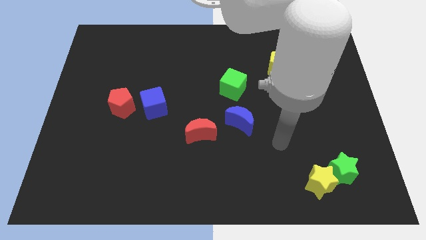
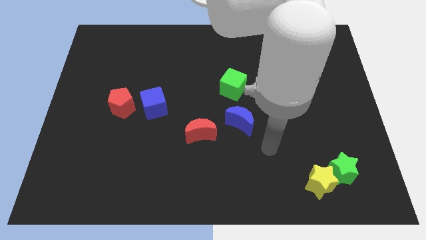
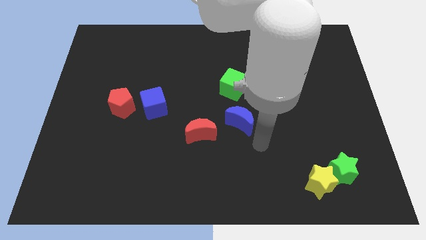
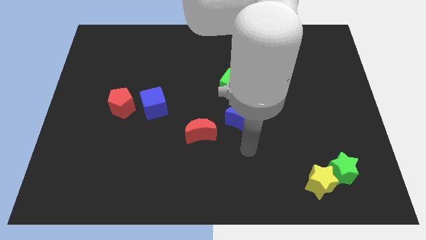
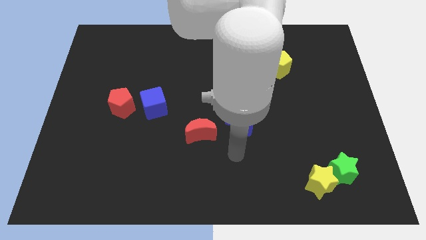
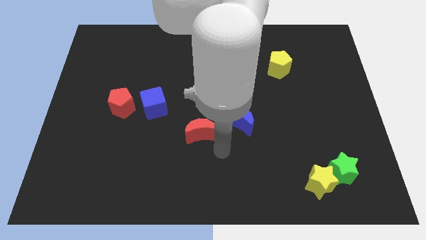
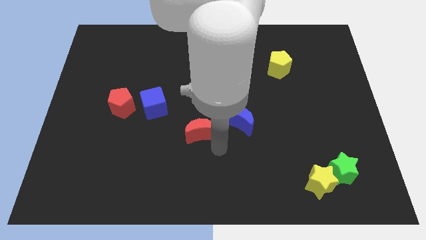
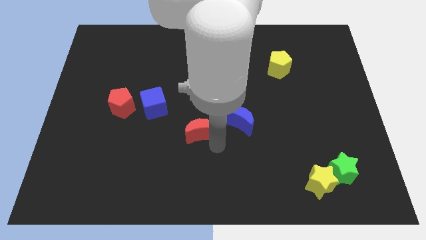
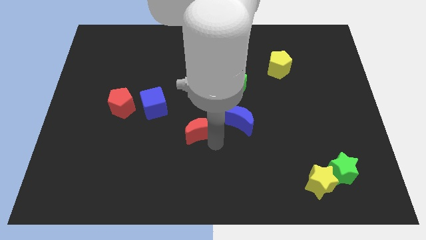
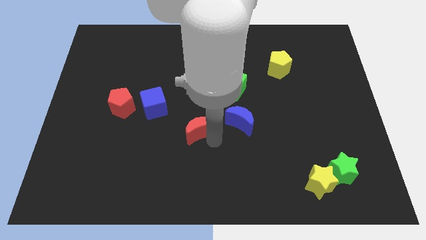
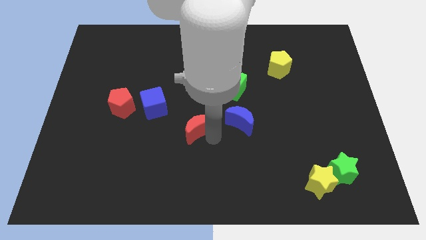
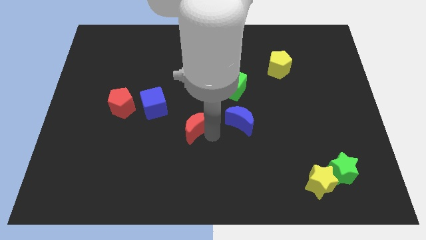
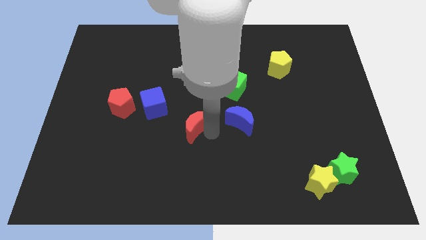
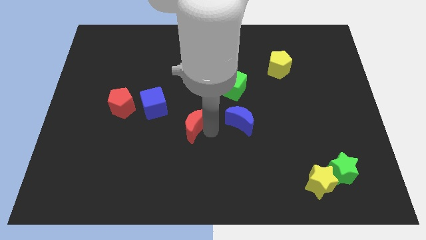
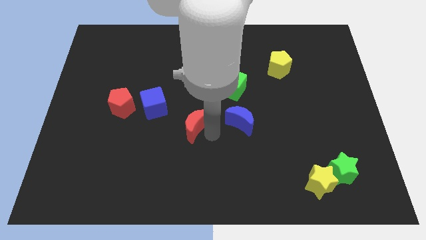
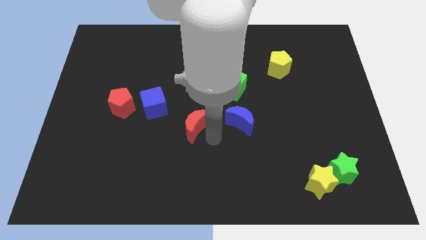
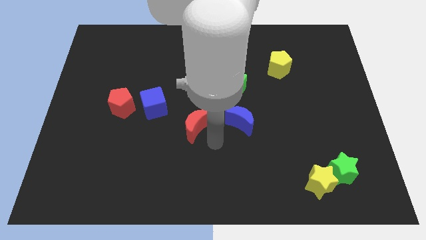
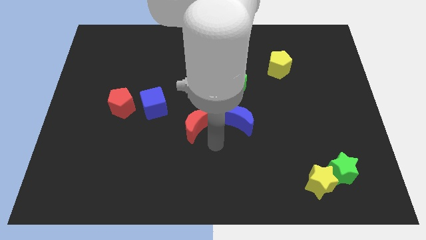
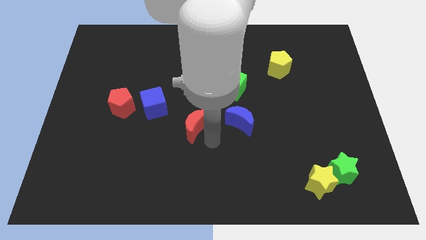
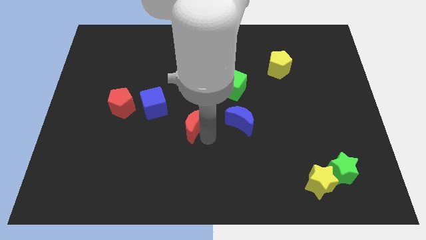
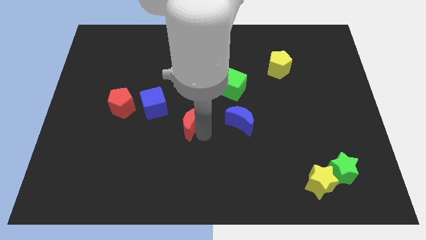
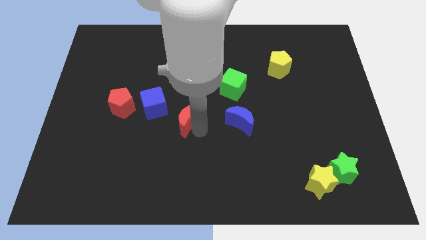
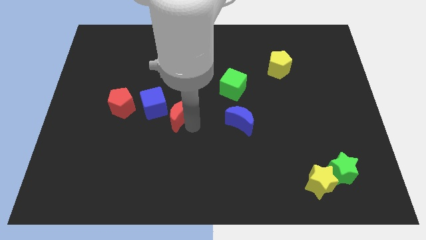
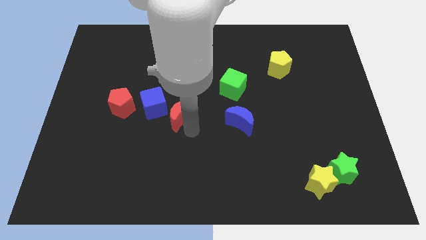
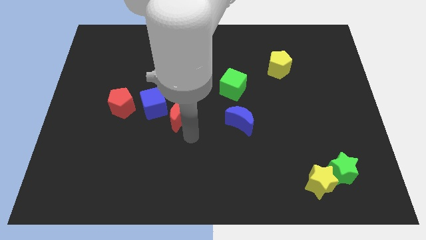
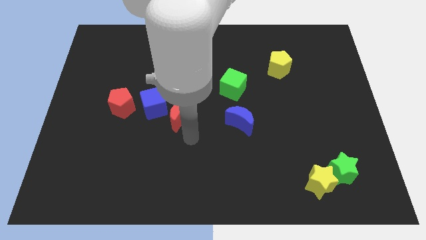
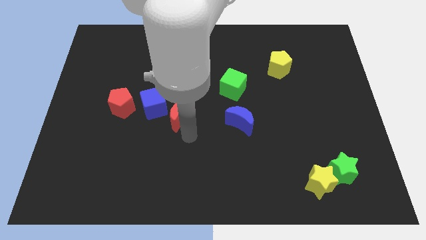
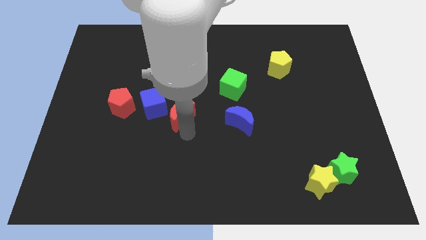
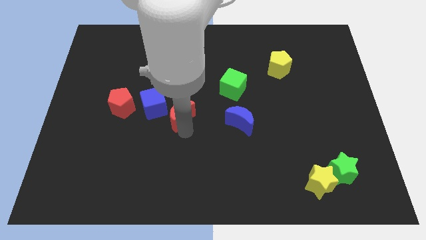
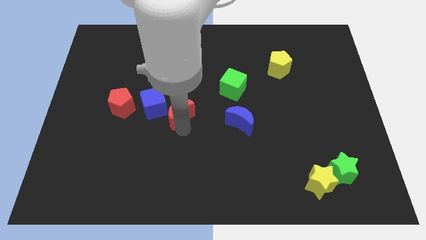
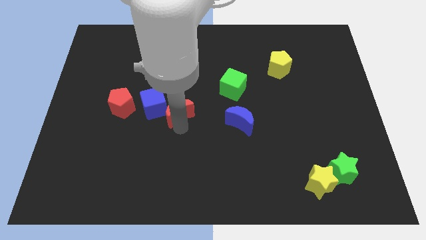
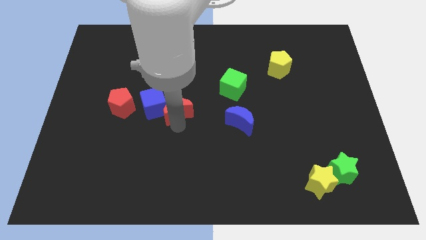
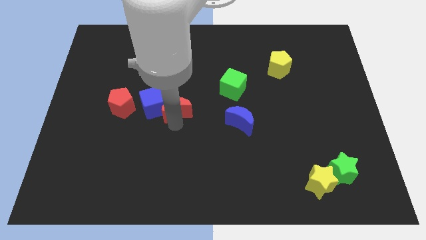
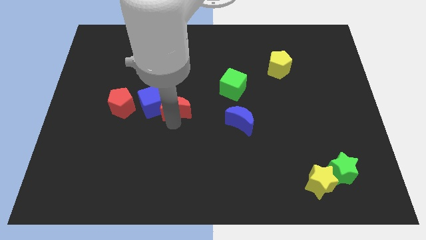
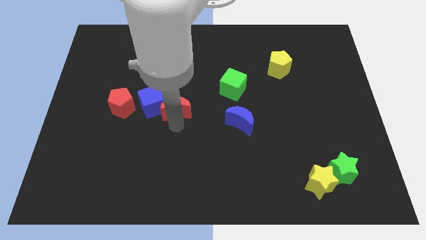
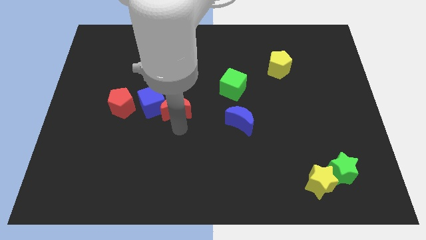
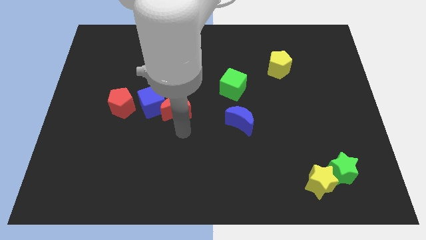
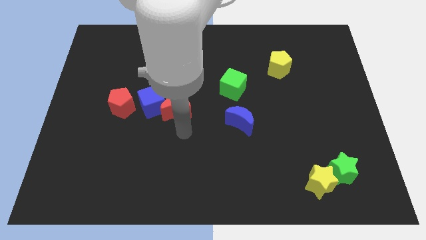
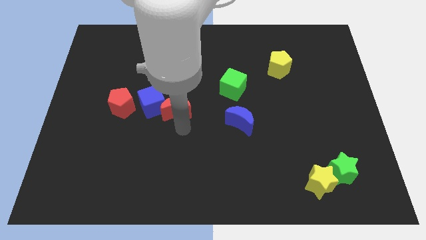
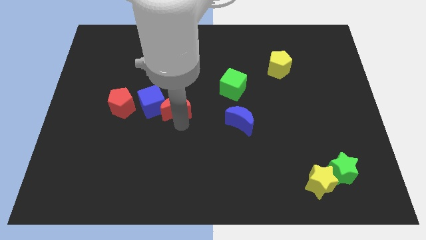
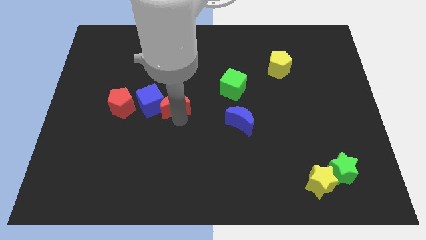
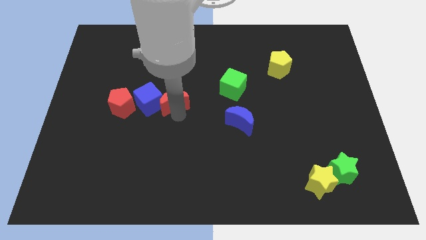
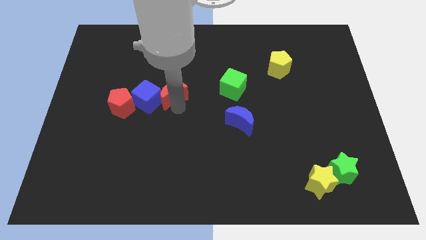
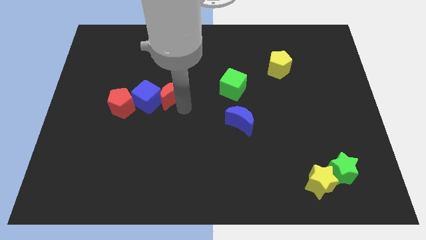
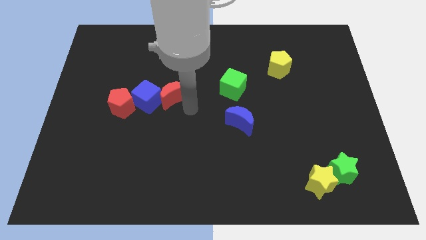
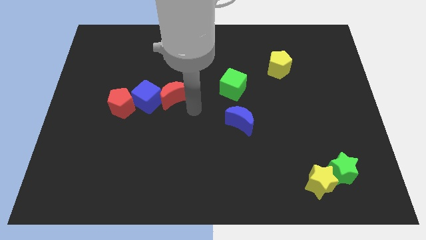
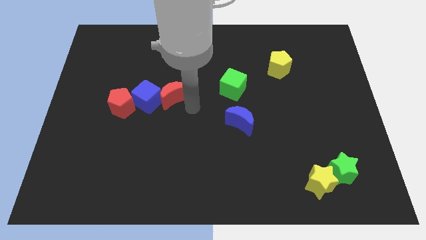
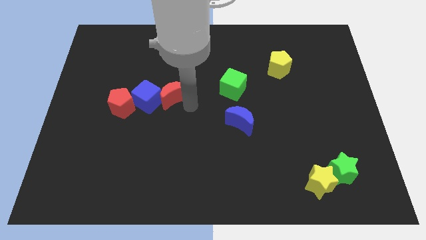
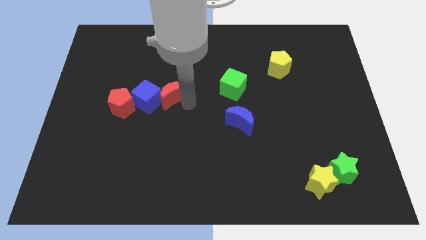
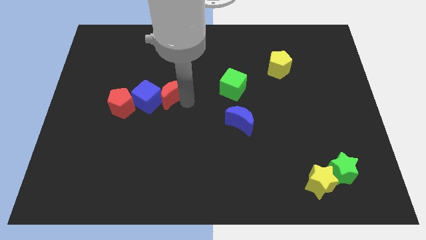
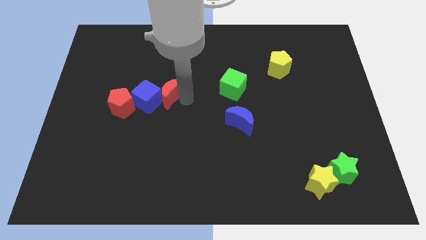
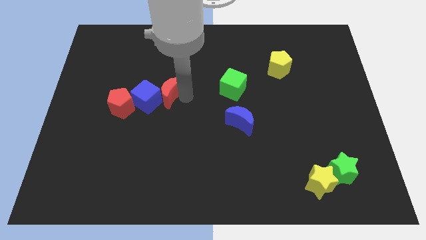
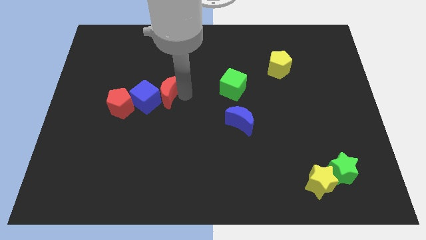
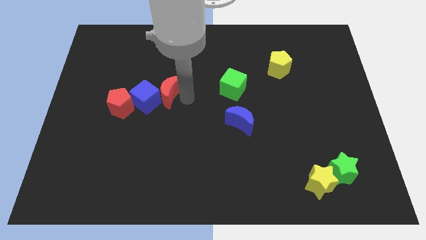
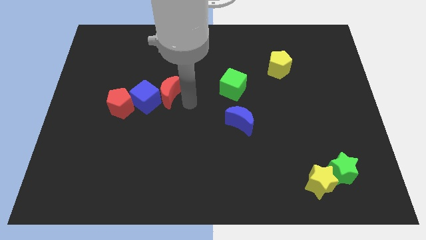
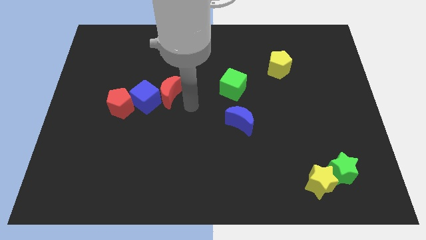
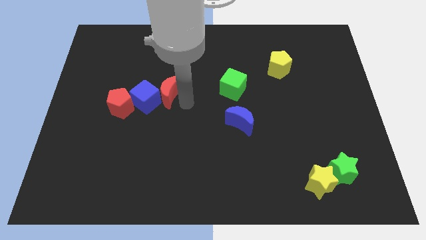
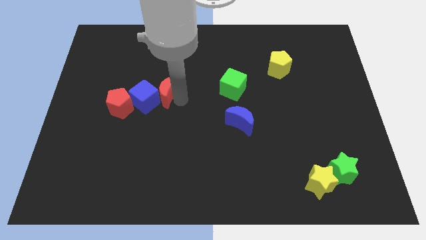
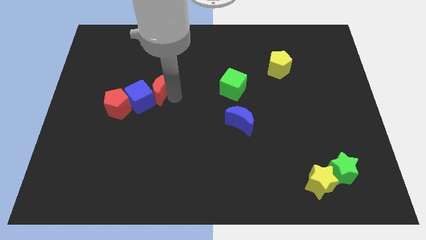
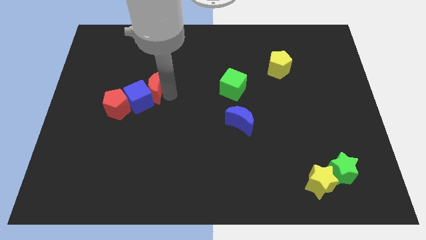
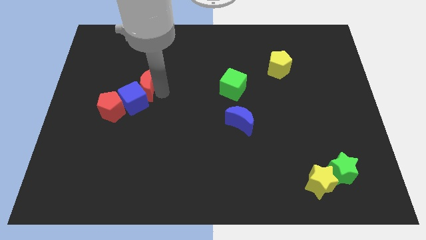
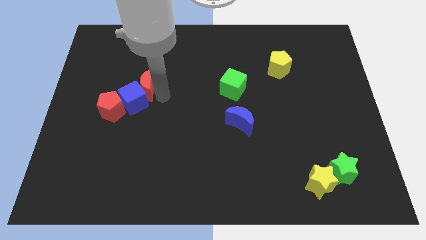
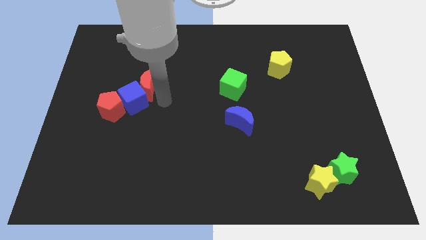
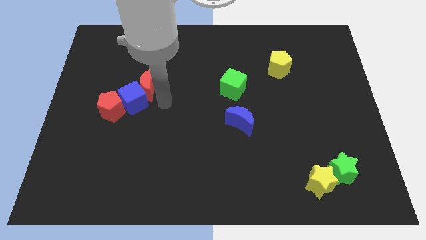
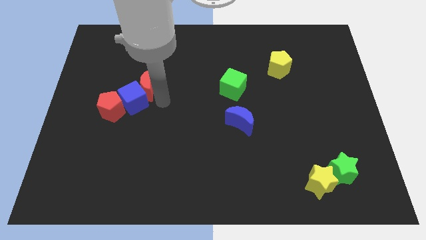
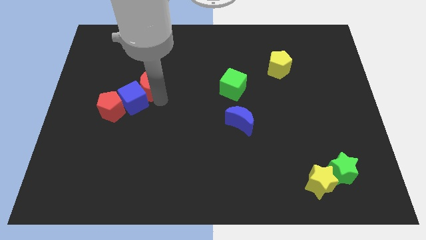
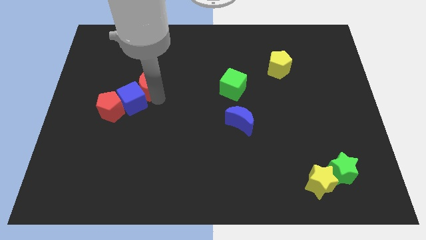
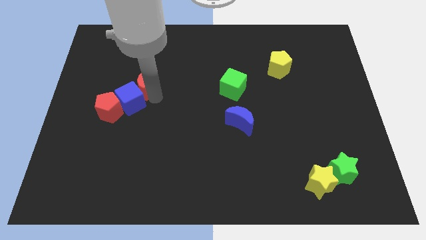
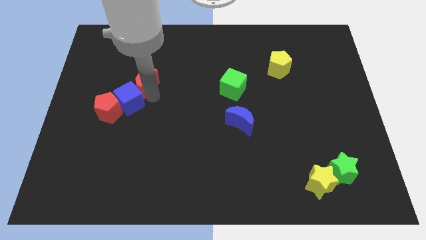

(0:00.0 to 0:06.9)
move the red moon up and then to the left

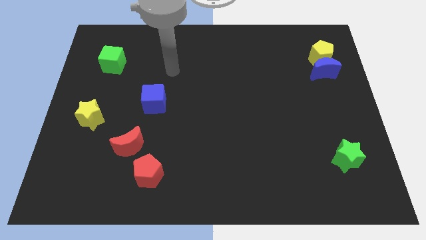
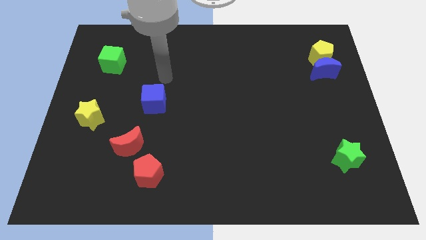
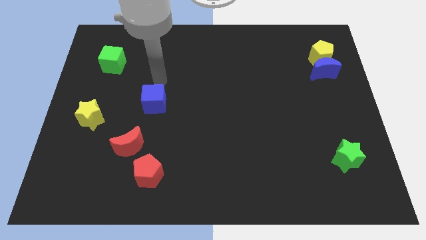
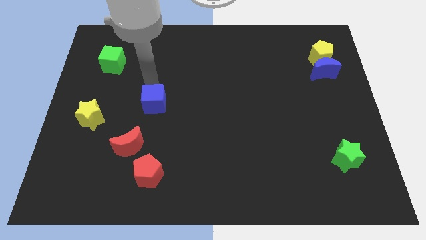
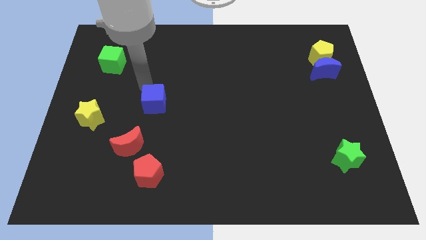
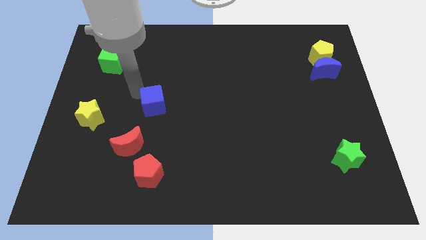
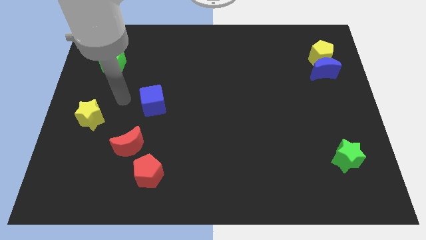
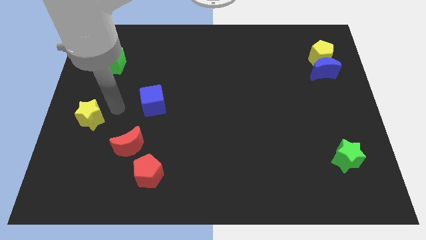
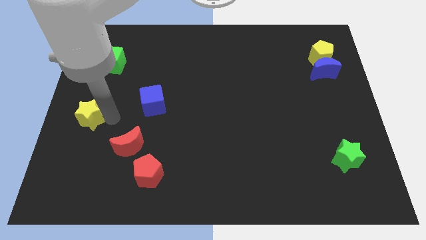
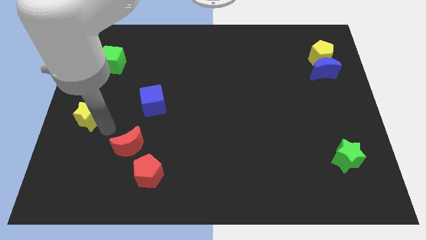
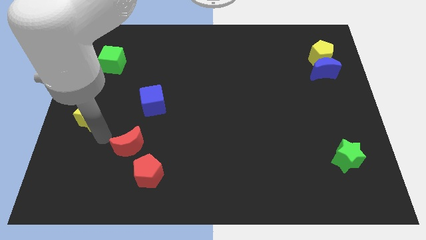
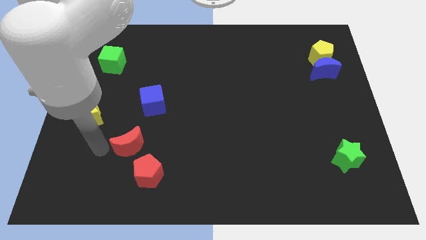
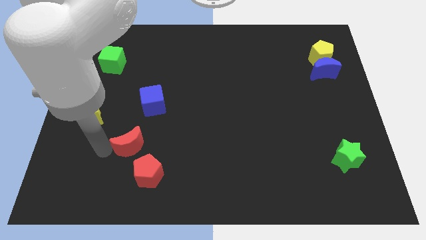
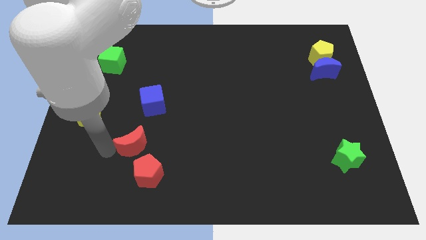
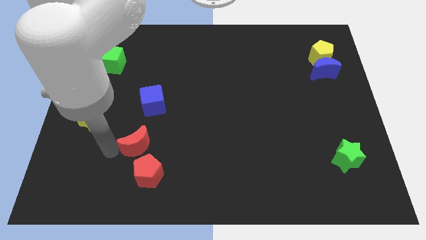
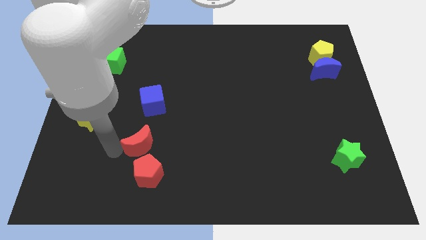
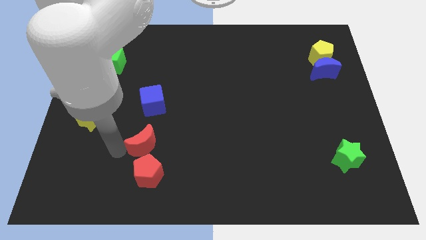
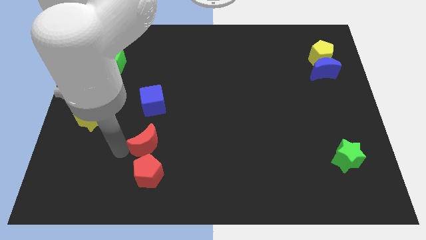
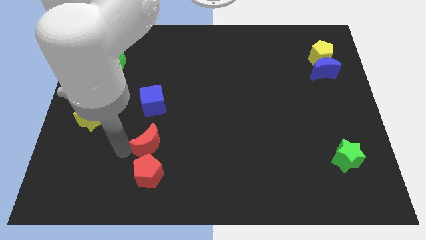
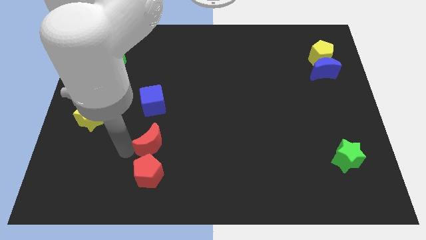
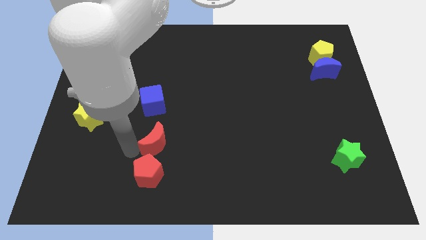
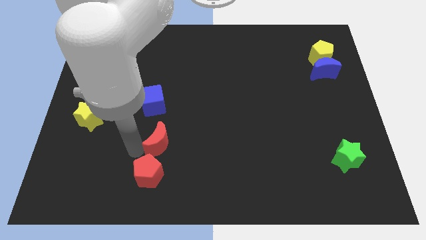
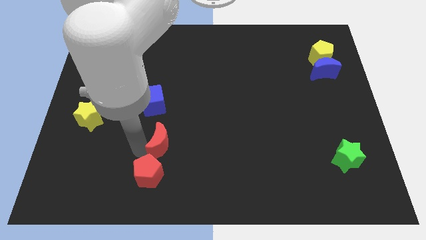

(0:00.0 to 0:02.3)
slightly push the red moon to the right
